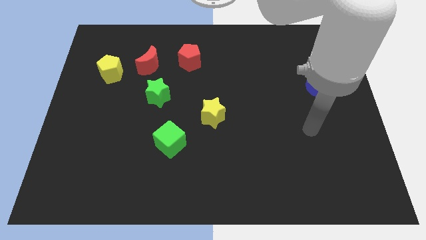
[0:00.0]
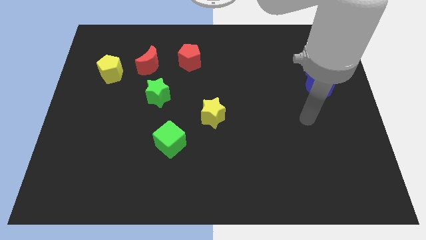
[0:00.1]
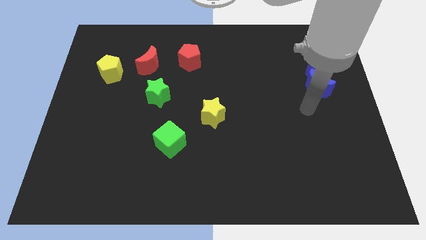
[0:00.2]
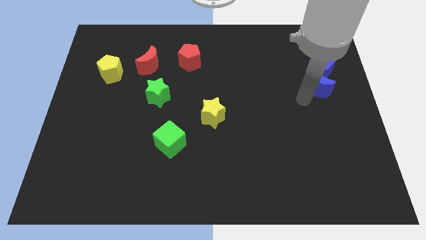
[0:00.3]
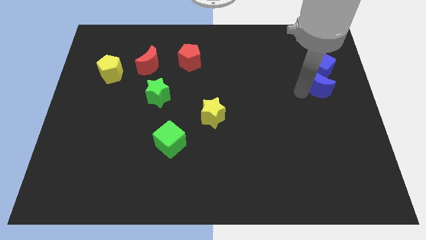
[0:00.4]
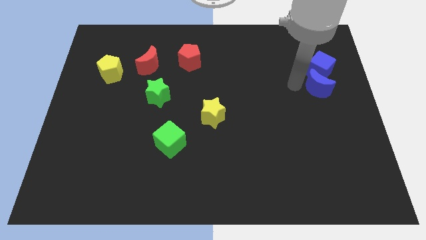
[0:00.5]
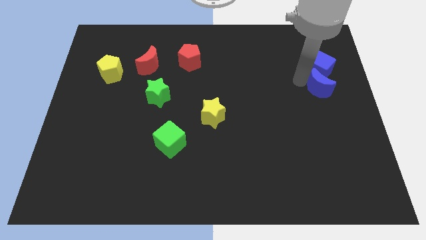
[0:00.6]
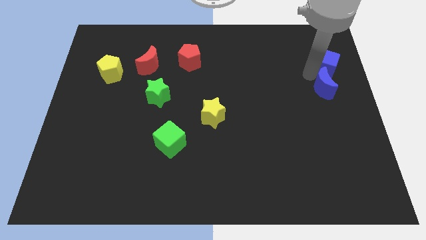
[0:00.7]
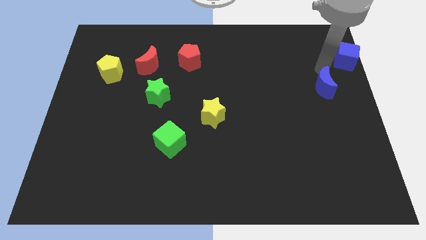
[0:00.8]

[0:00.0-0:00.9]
move the blue moon away from the blue cube

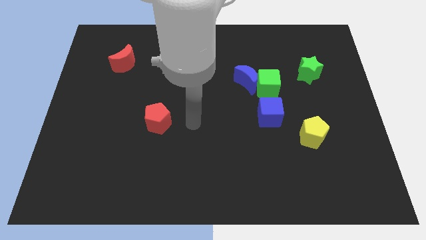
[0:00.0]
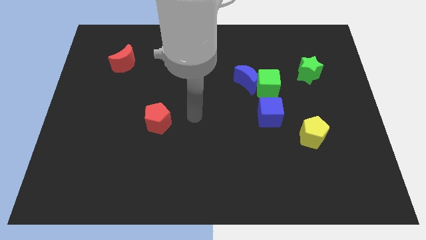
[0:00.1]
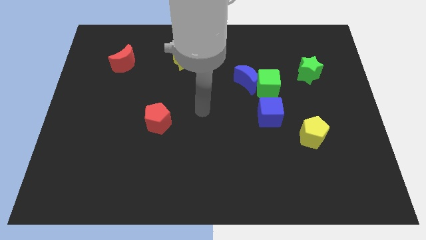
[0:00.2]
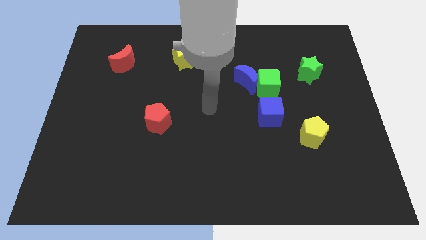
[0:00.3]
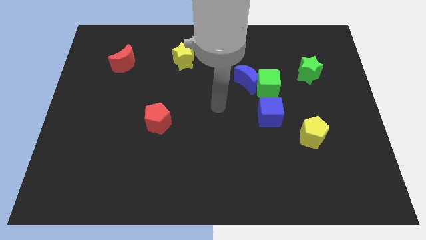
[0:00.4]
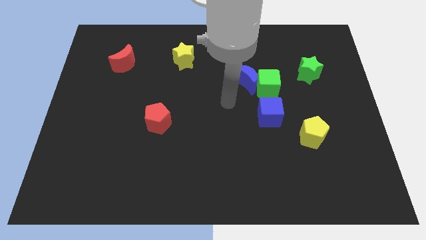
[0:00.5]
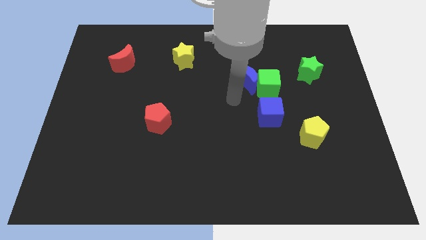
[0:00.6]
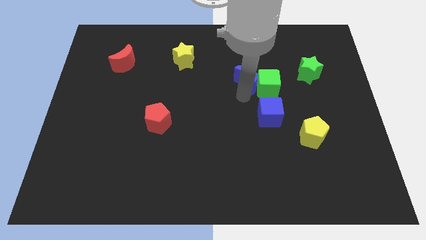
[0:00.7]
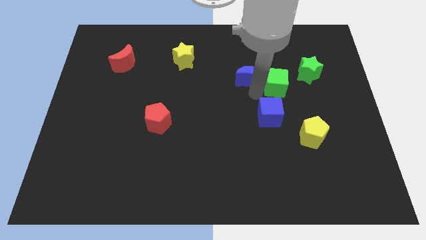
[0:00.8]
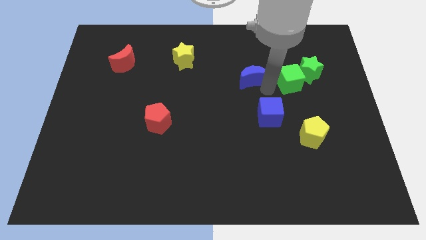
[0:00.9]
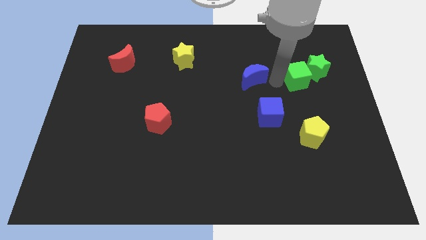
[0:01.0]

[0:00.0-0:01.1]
separate the blue moon from the green cube

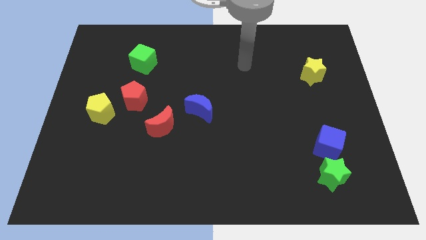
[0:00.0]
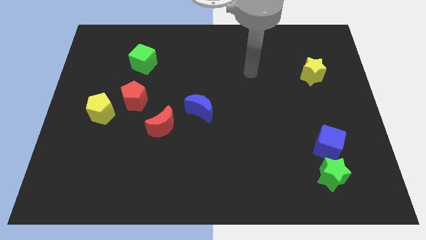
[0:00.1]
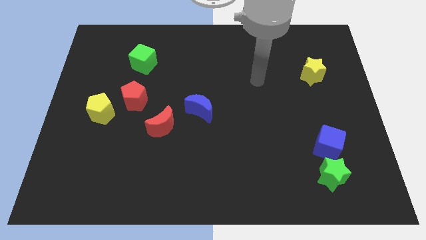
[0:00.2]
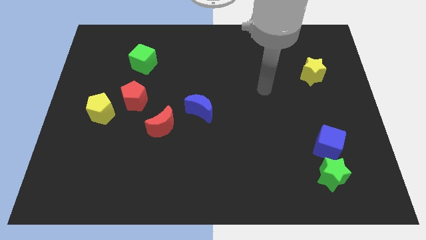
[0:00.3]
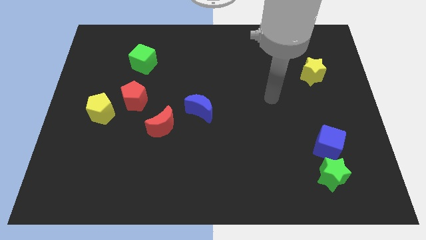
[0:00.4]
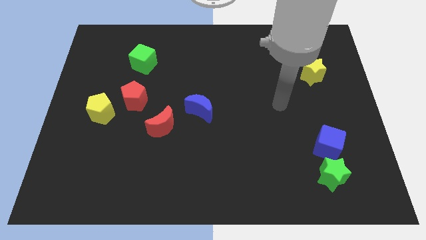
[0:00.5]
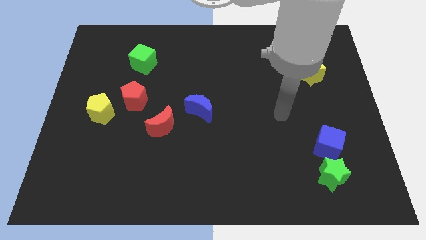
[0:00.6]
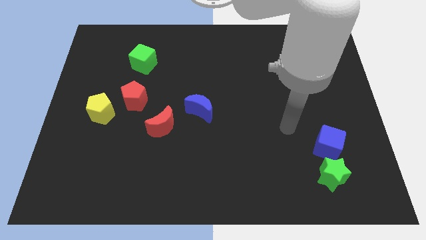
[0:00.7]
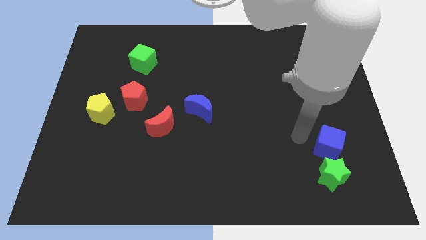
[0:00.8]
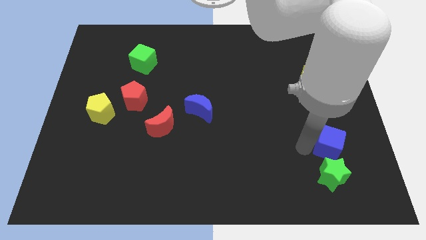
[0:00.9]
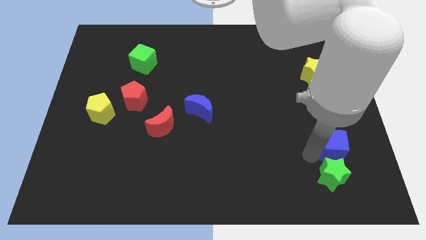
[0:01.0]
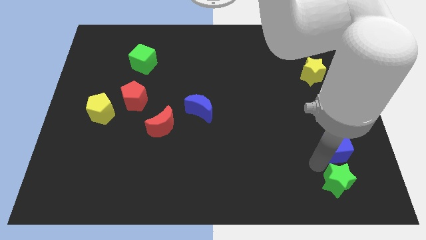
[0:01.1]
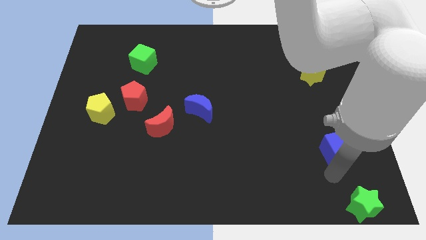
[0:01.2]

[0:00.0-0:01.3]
move the blue cube away from the green star

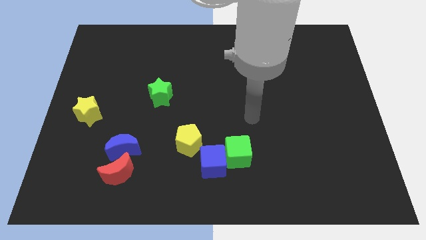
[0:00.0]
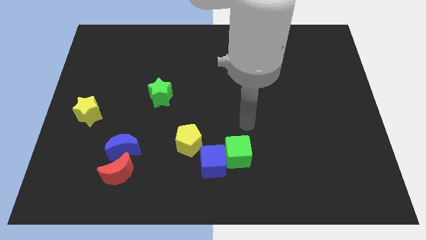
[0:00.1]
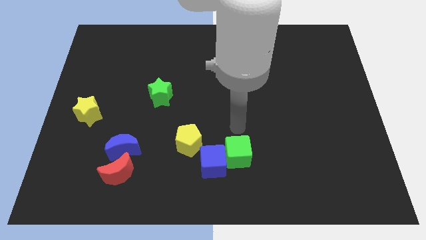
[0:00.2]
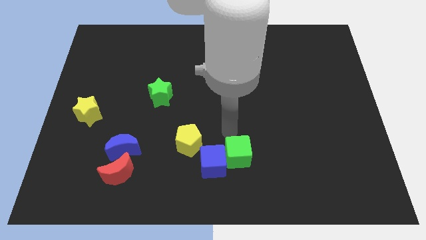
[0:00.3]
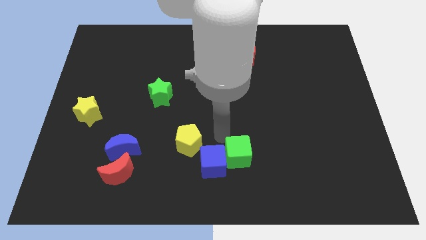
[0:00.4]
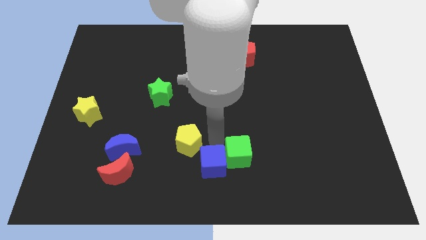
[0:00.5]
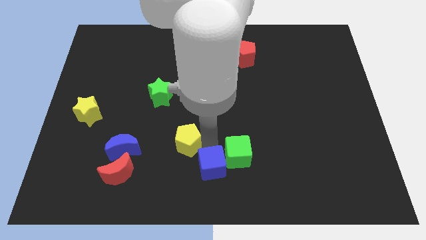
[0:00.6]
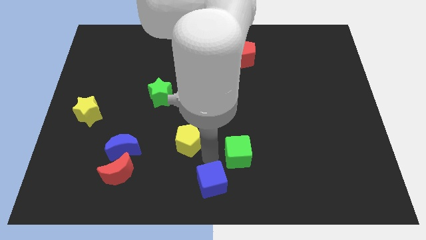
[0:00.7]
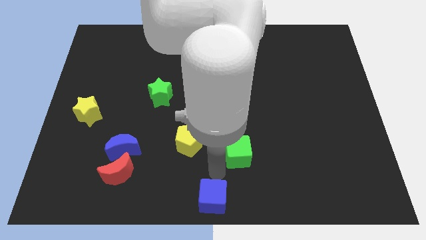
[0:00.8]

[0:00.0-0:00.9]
pull the green cube apart from the blue cube

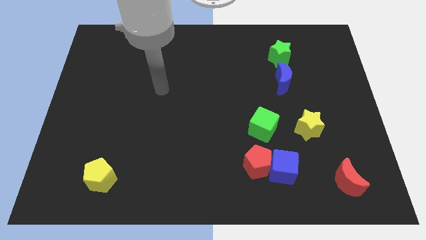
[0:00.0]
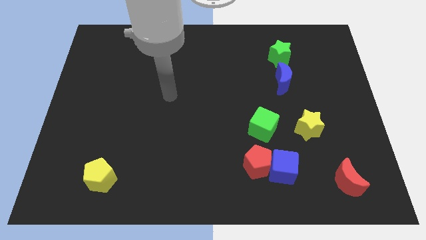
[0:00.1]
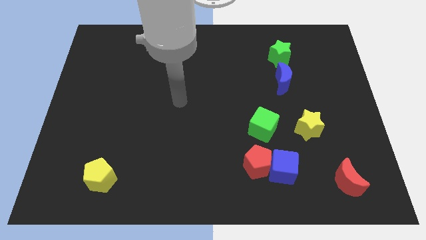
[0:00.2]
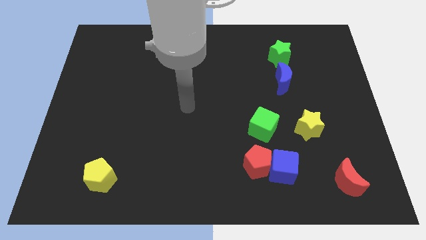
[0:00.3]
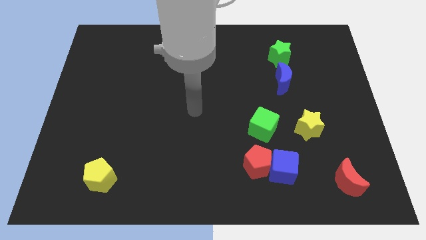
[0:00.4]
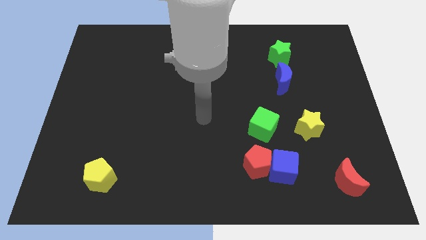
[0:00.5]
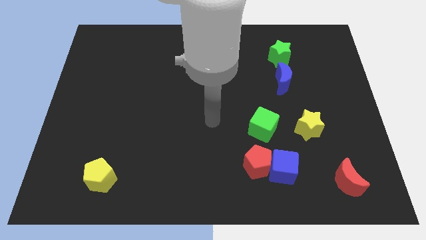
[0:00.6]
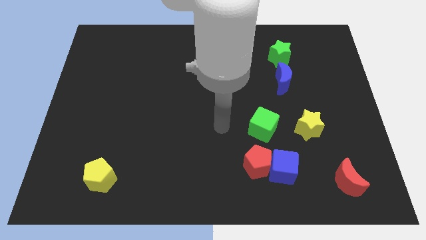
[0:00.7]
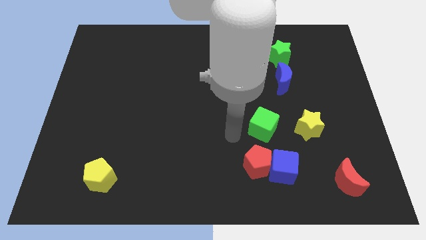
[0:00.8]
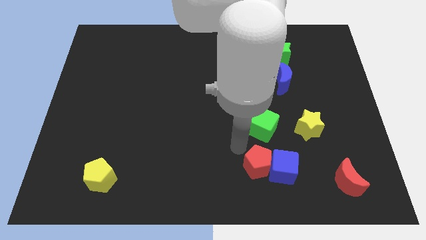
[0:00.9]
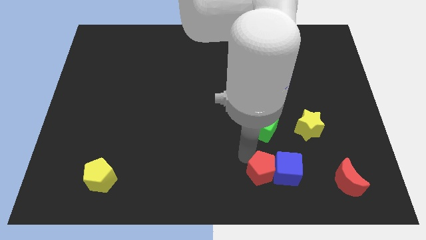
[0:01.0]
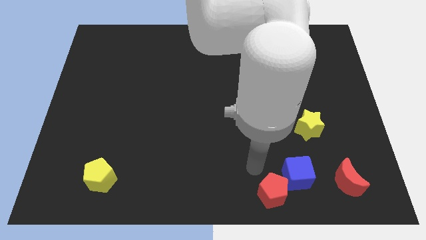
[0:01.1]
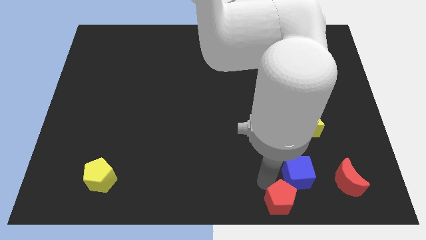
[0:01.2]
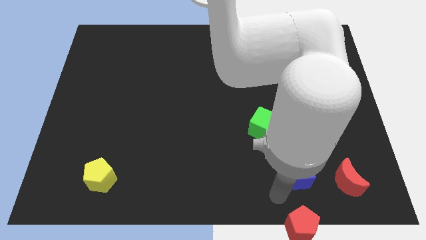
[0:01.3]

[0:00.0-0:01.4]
separate the blue cube from the red pentagon

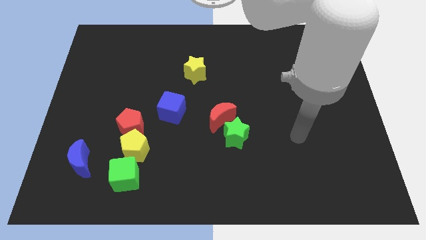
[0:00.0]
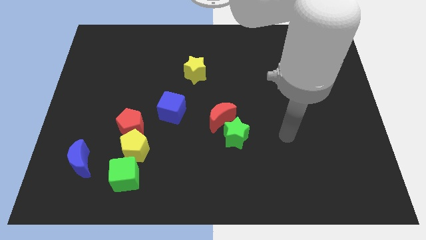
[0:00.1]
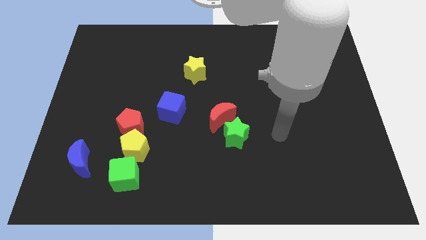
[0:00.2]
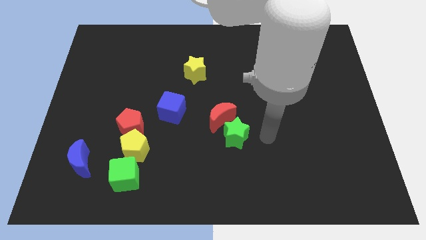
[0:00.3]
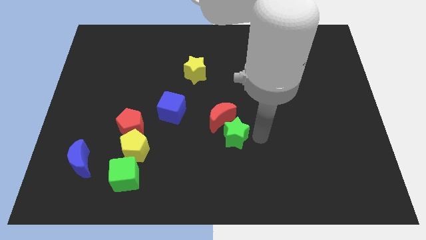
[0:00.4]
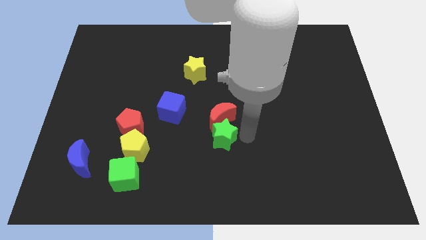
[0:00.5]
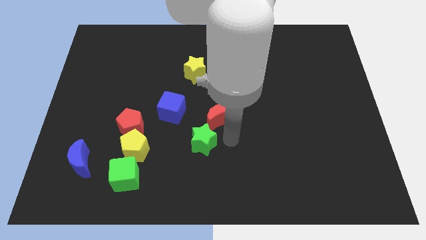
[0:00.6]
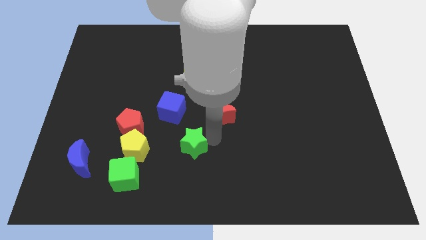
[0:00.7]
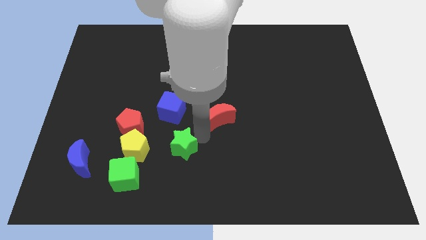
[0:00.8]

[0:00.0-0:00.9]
move the red moon away from the green star

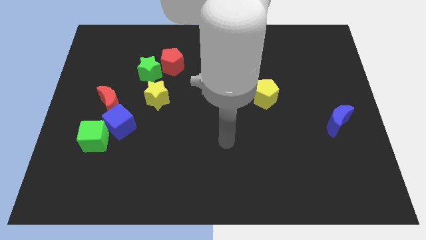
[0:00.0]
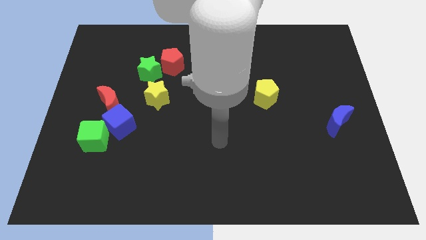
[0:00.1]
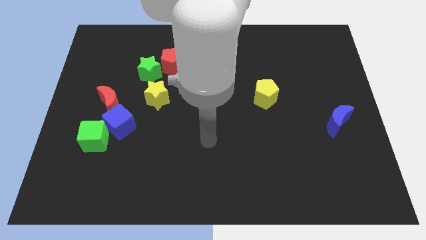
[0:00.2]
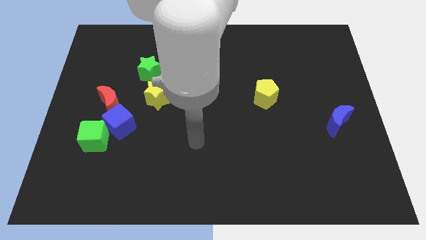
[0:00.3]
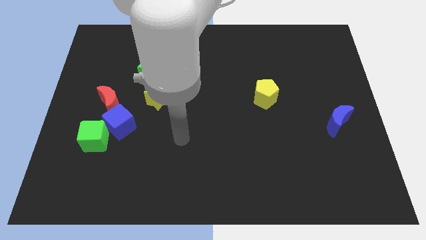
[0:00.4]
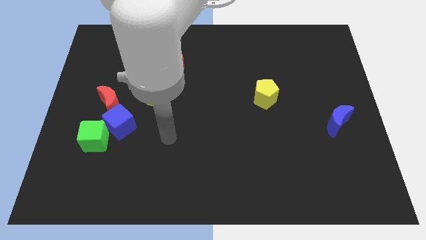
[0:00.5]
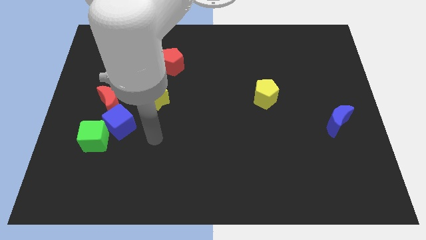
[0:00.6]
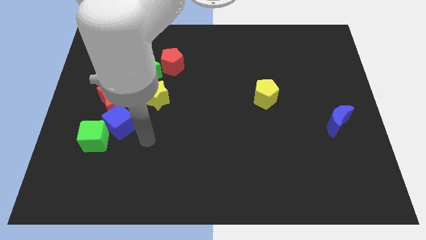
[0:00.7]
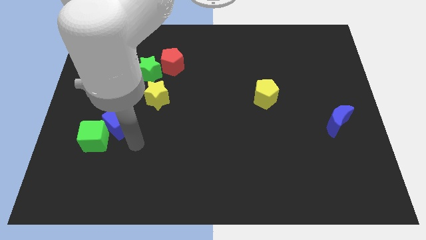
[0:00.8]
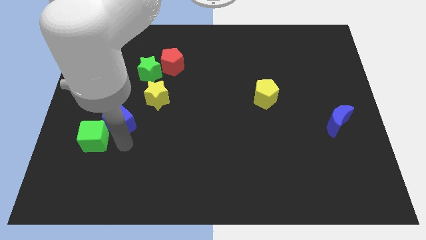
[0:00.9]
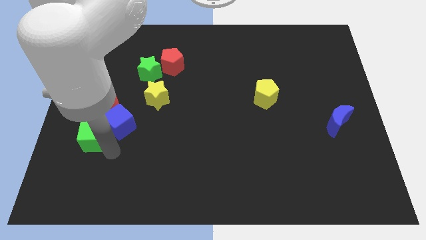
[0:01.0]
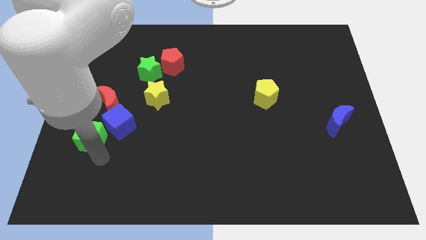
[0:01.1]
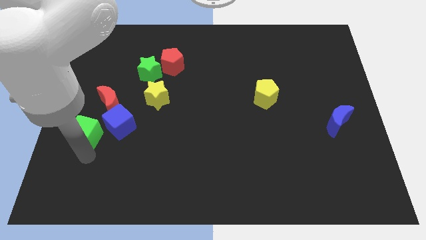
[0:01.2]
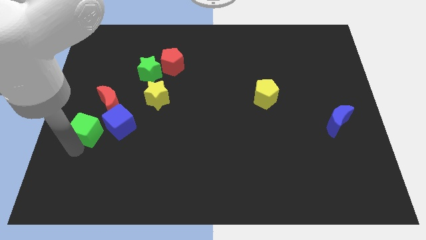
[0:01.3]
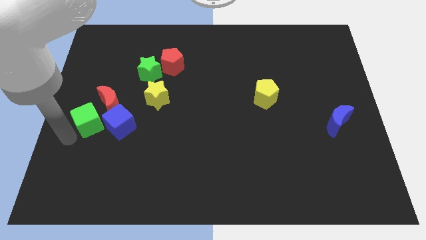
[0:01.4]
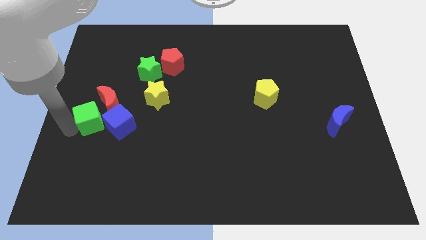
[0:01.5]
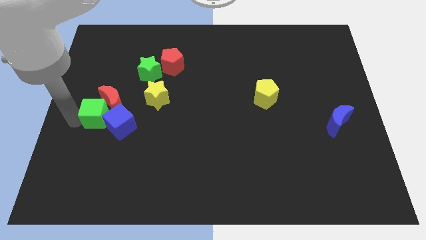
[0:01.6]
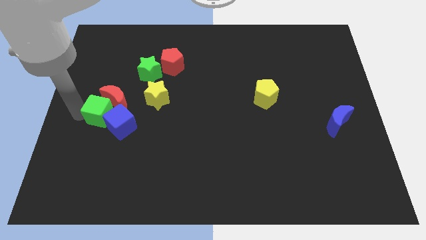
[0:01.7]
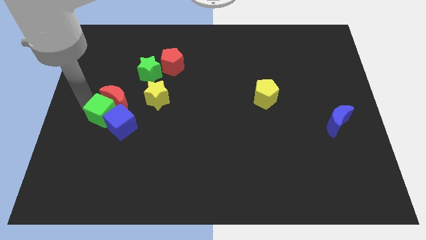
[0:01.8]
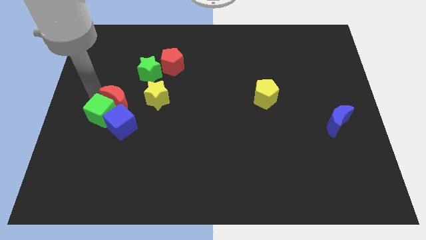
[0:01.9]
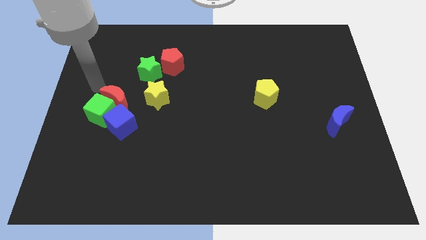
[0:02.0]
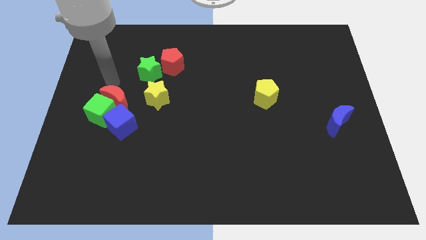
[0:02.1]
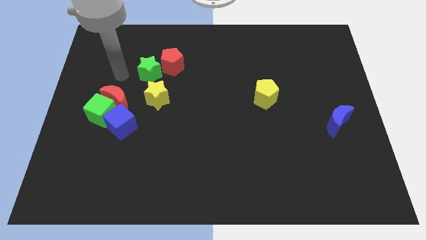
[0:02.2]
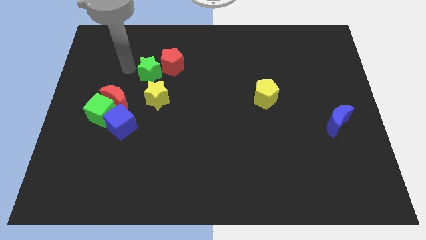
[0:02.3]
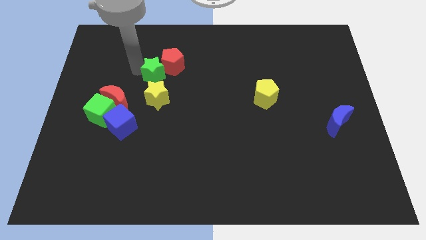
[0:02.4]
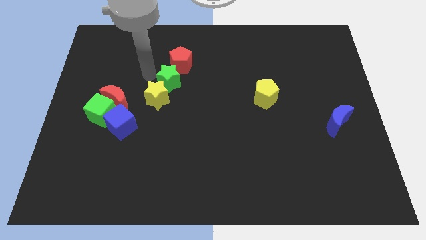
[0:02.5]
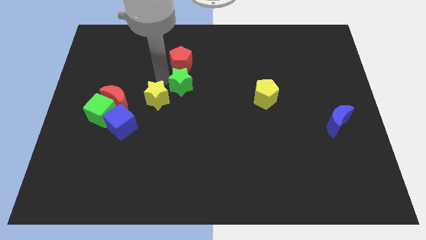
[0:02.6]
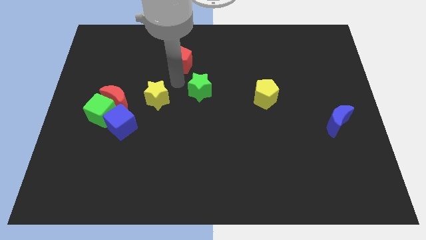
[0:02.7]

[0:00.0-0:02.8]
move the red pentagon away from the green star
